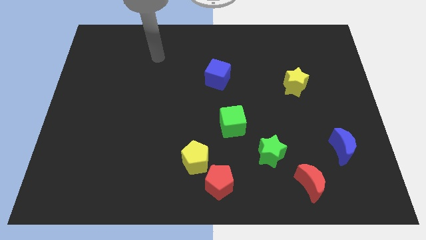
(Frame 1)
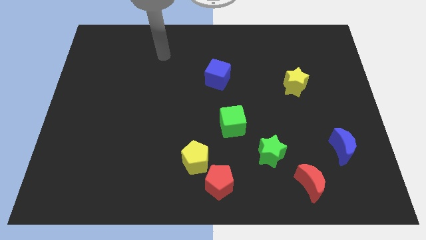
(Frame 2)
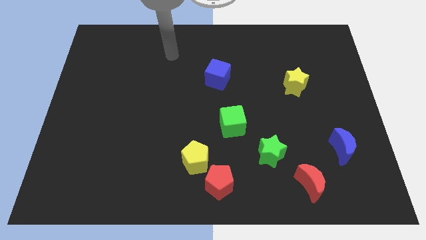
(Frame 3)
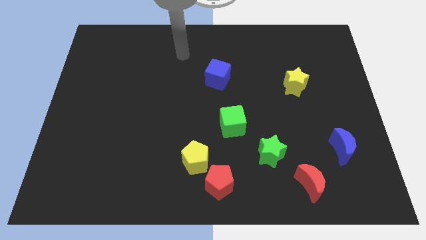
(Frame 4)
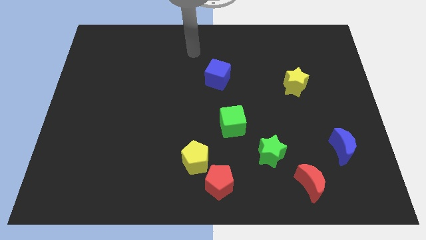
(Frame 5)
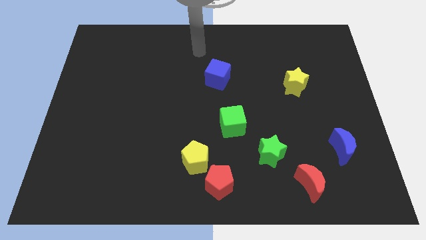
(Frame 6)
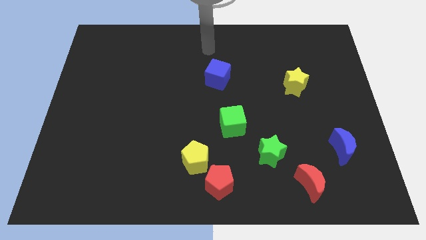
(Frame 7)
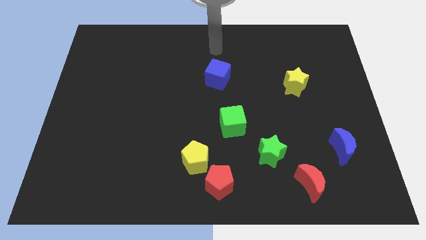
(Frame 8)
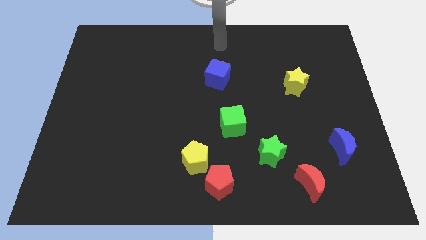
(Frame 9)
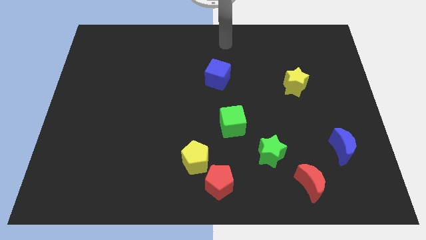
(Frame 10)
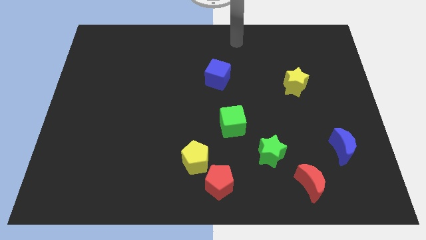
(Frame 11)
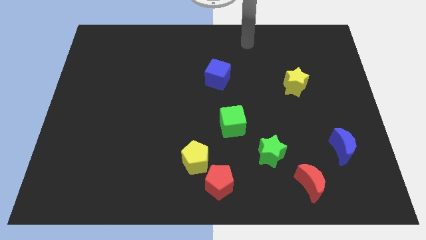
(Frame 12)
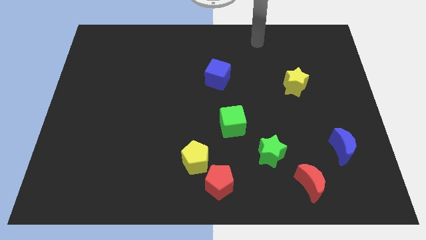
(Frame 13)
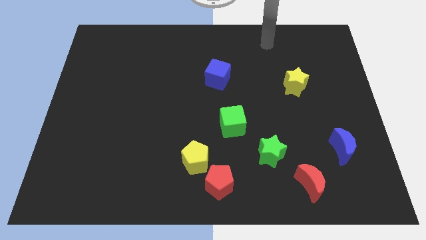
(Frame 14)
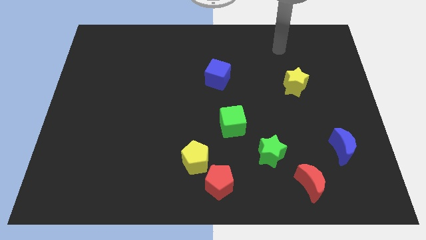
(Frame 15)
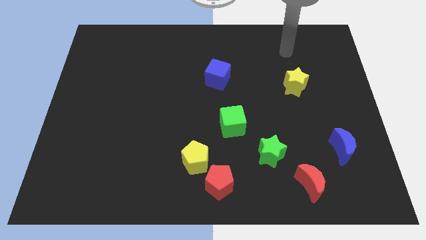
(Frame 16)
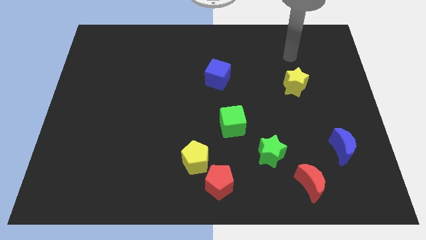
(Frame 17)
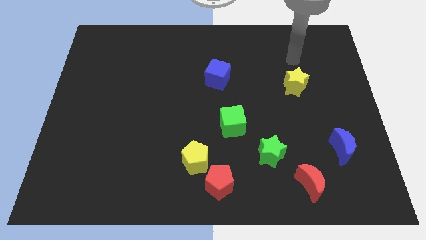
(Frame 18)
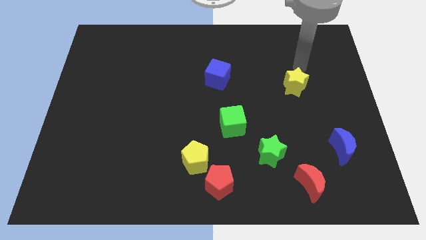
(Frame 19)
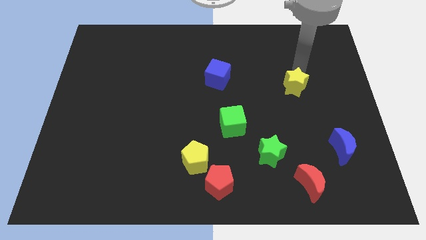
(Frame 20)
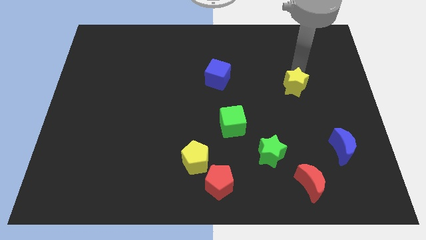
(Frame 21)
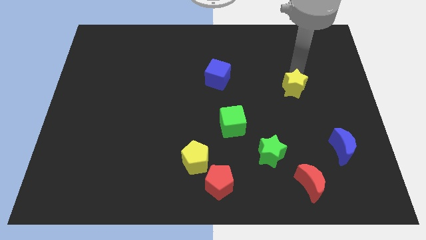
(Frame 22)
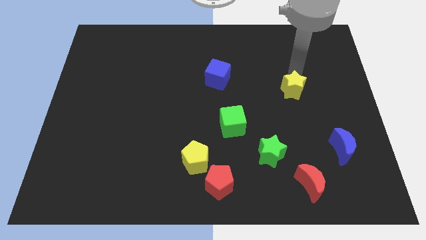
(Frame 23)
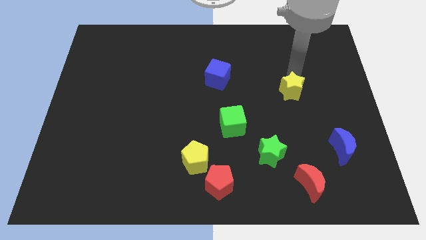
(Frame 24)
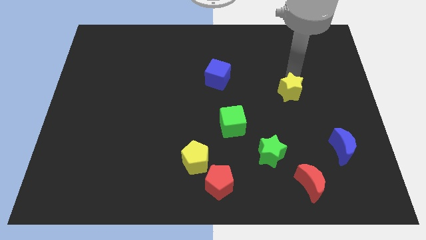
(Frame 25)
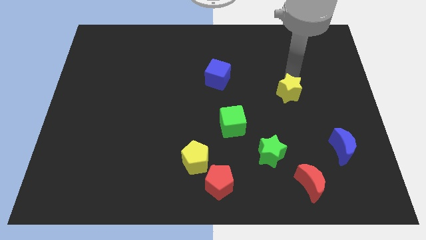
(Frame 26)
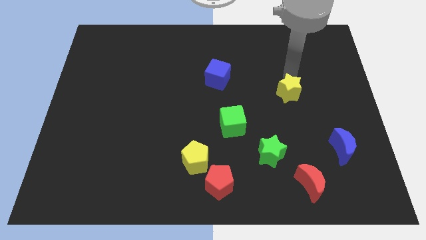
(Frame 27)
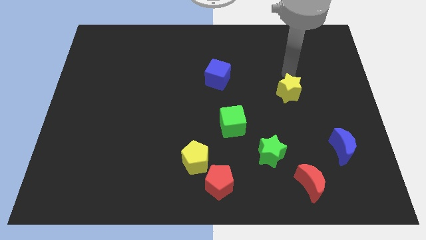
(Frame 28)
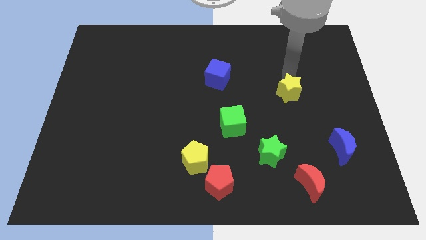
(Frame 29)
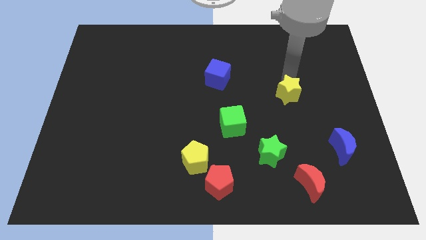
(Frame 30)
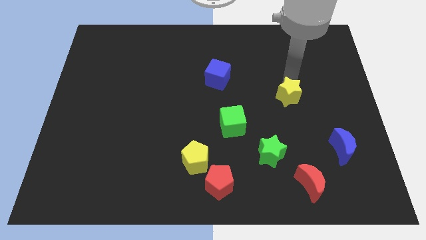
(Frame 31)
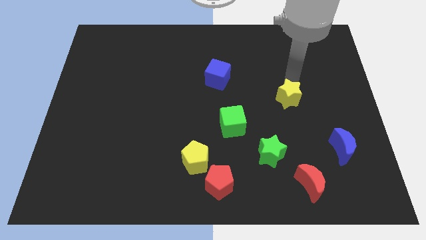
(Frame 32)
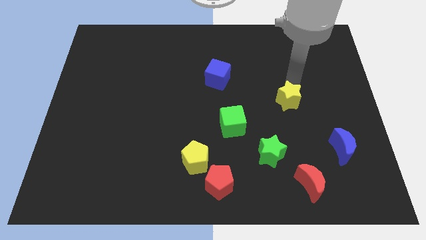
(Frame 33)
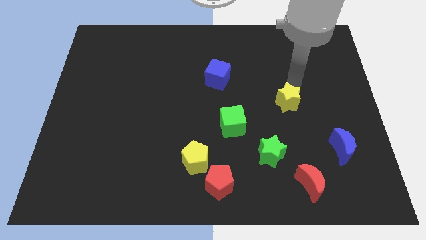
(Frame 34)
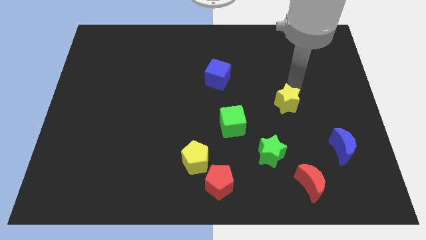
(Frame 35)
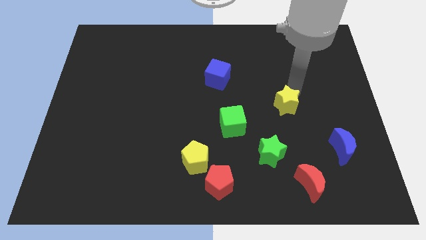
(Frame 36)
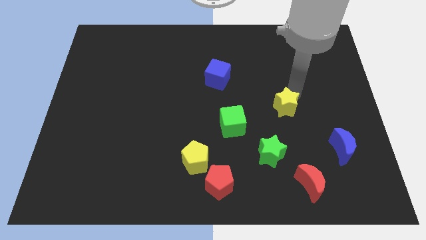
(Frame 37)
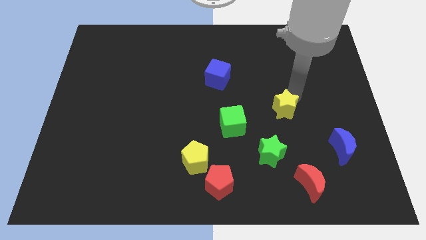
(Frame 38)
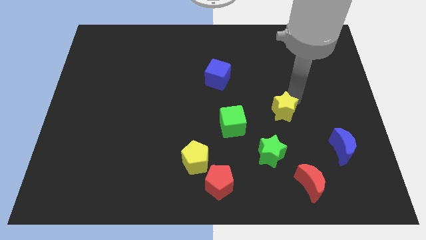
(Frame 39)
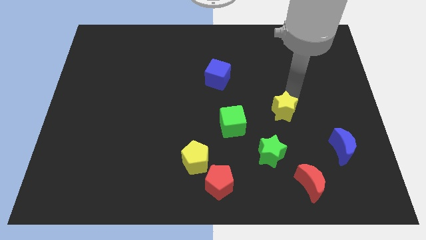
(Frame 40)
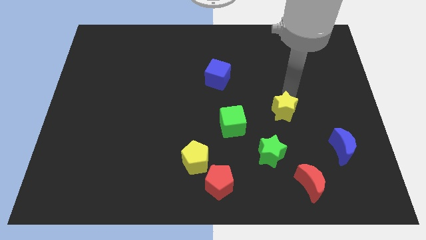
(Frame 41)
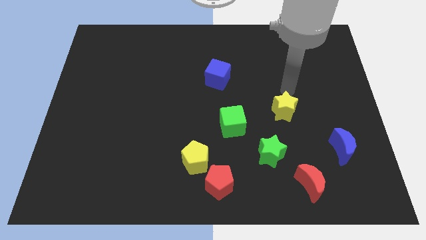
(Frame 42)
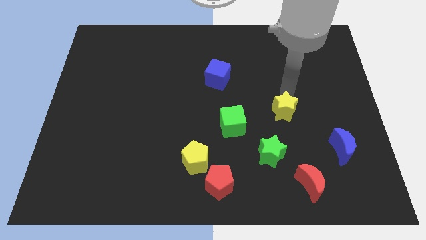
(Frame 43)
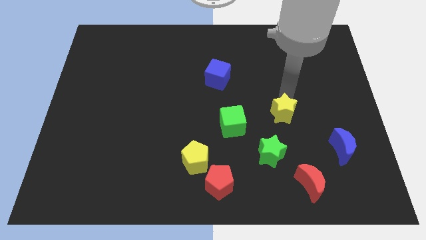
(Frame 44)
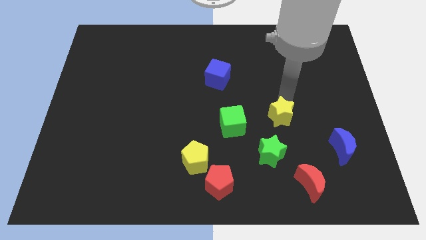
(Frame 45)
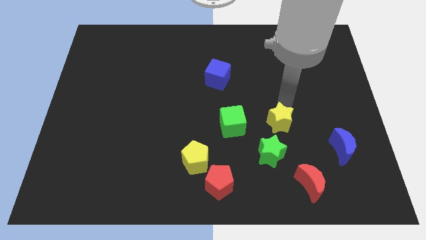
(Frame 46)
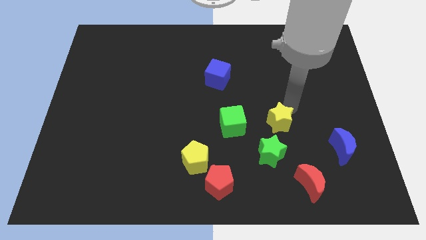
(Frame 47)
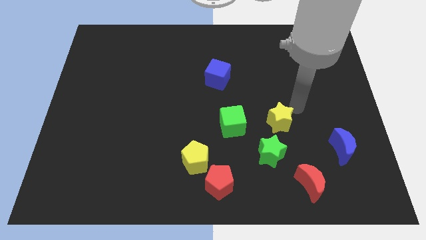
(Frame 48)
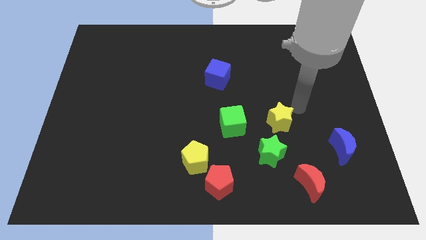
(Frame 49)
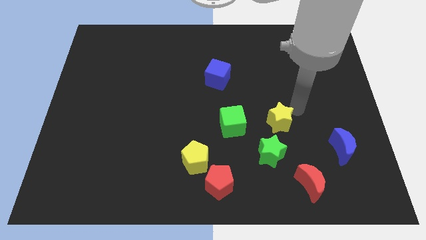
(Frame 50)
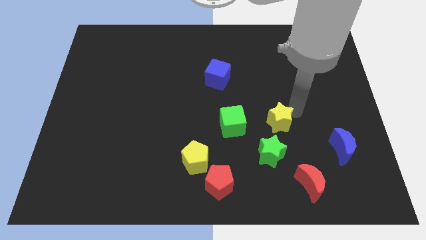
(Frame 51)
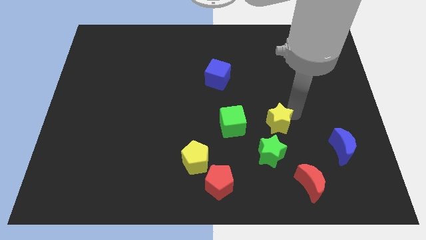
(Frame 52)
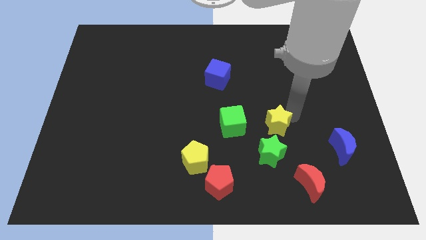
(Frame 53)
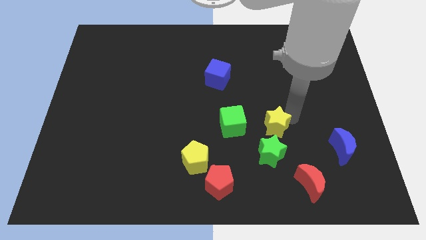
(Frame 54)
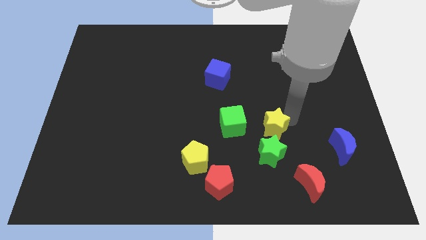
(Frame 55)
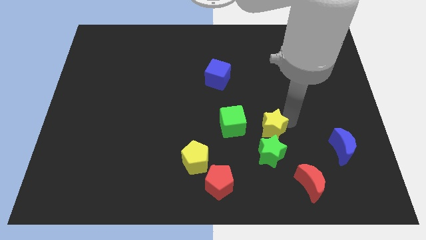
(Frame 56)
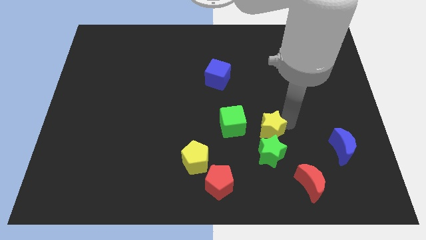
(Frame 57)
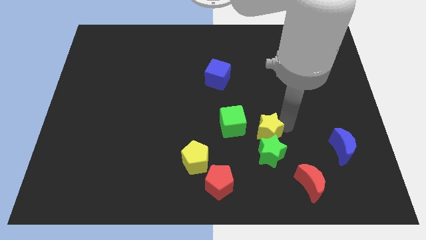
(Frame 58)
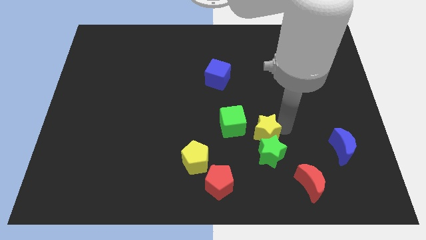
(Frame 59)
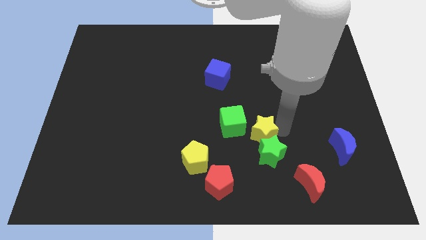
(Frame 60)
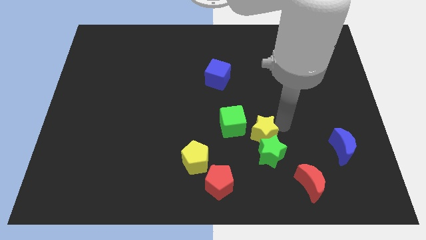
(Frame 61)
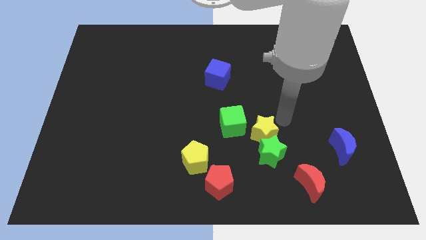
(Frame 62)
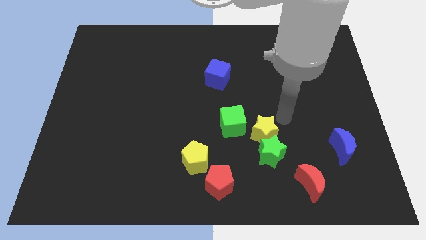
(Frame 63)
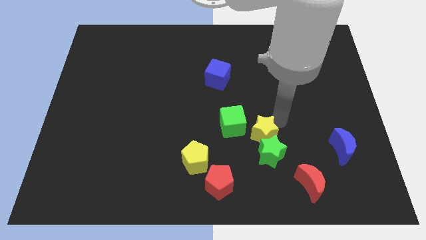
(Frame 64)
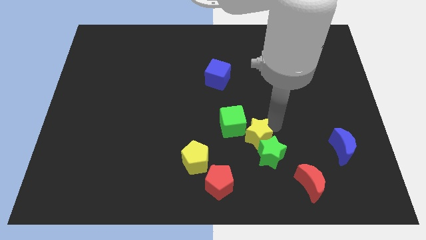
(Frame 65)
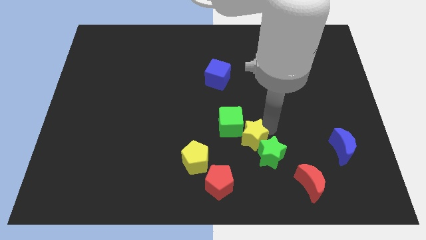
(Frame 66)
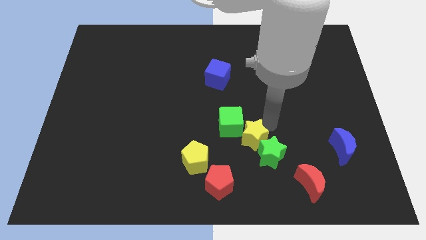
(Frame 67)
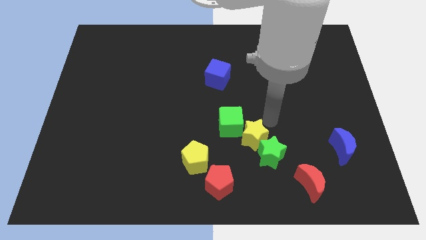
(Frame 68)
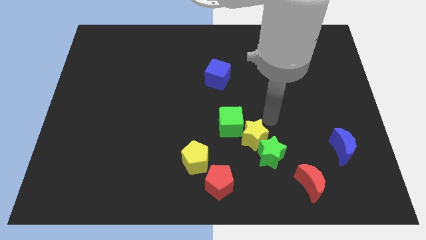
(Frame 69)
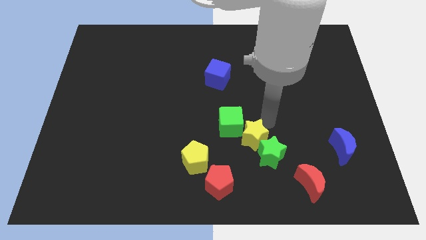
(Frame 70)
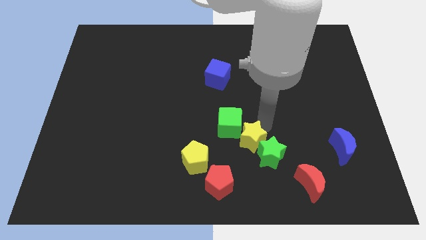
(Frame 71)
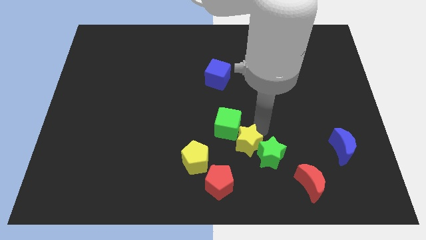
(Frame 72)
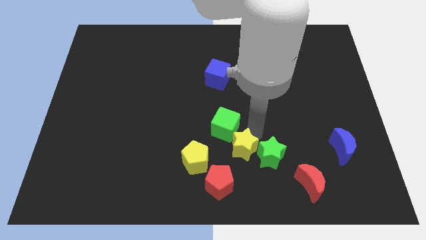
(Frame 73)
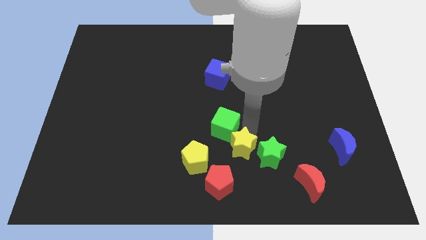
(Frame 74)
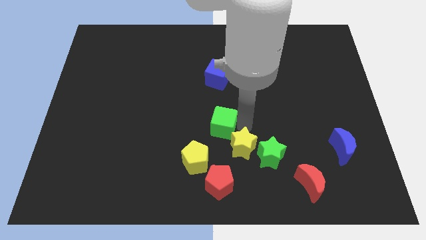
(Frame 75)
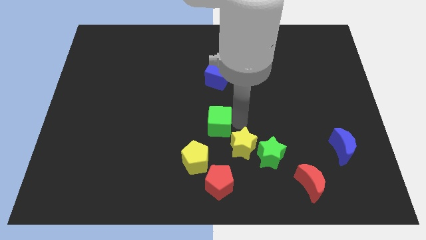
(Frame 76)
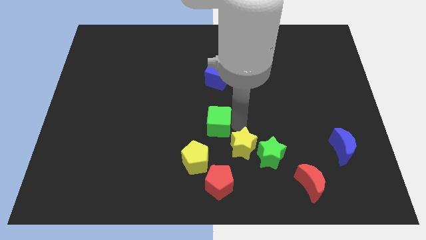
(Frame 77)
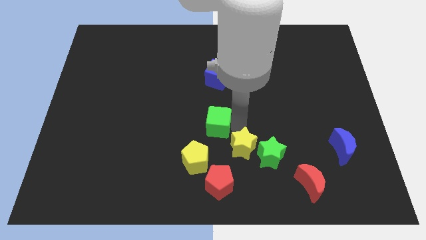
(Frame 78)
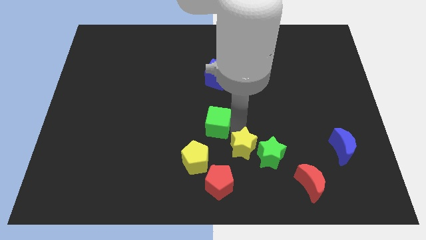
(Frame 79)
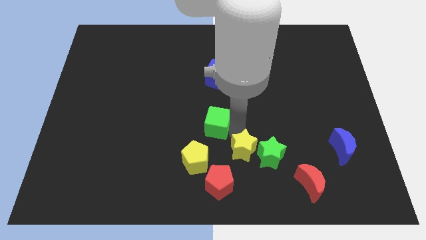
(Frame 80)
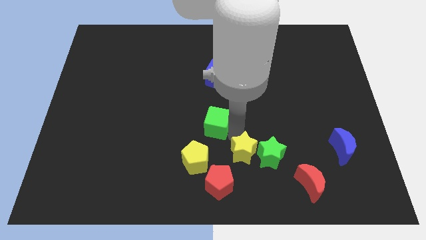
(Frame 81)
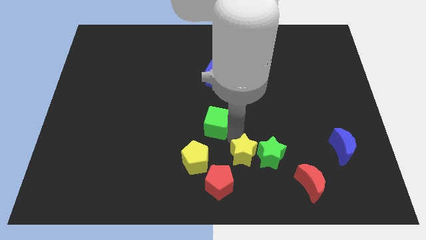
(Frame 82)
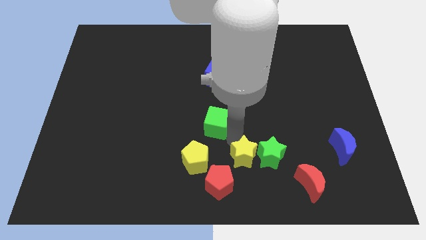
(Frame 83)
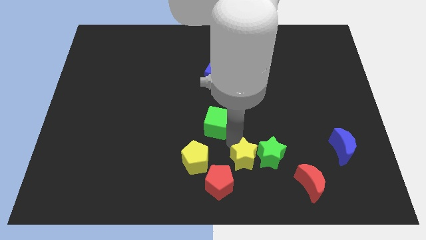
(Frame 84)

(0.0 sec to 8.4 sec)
slide the yellow star to the bottom
